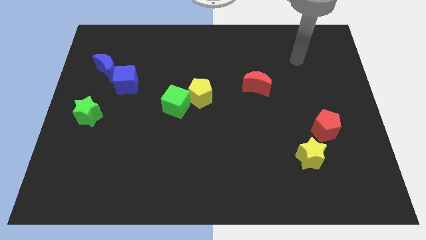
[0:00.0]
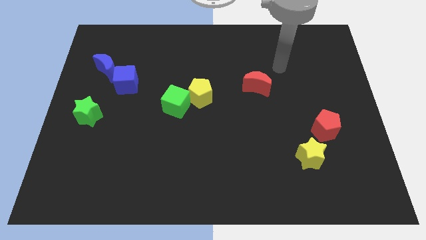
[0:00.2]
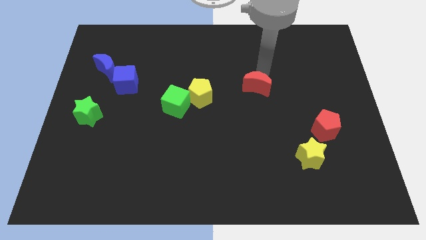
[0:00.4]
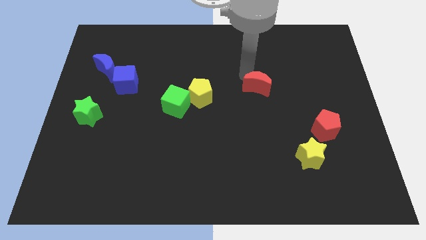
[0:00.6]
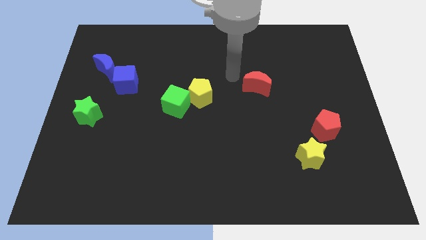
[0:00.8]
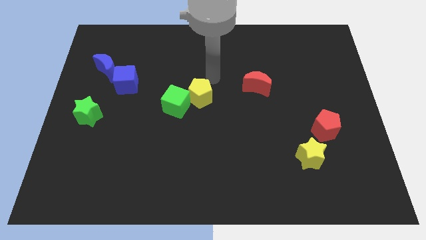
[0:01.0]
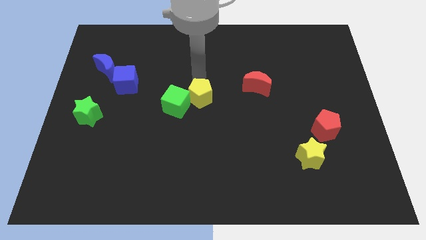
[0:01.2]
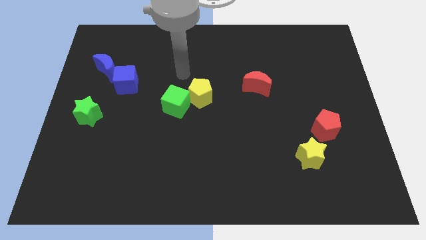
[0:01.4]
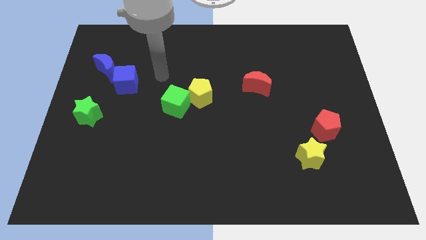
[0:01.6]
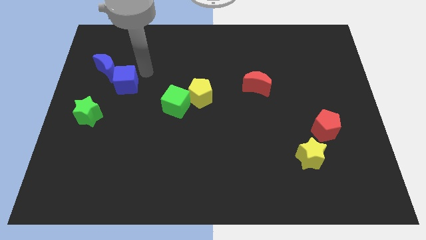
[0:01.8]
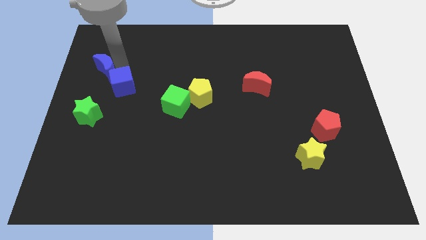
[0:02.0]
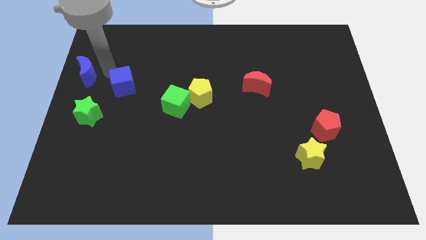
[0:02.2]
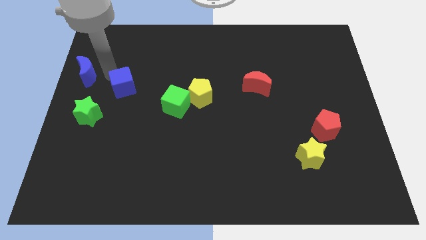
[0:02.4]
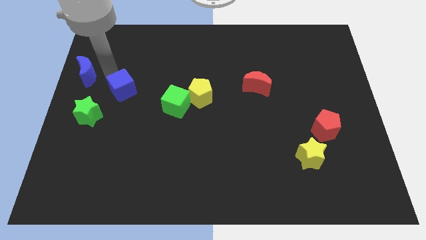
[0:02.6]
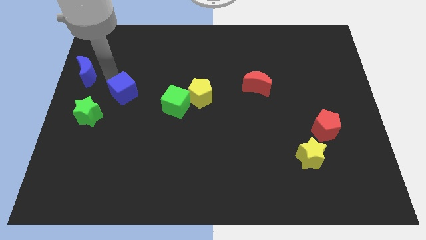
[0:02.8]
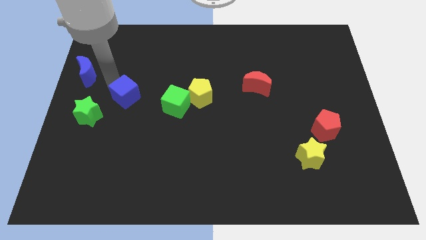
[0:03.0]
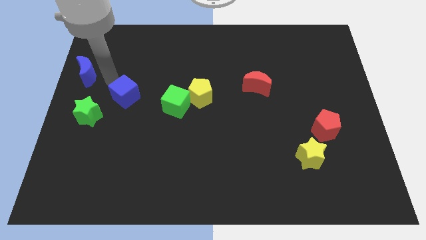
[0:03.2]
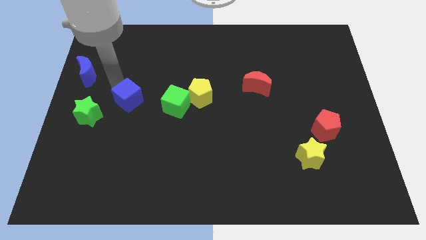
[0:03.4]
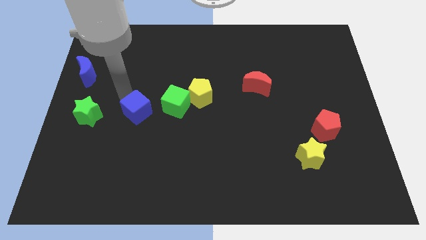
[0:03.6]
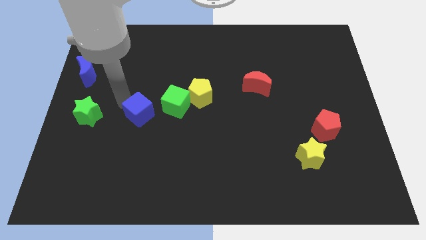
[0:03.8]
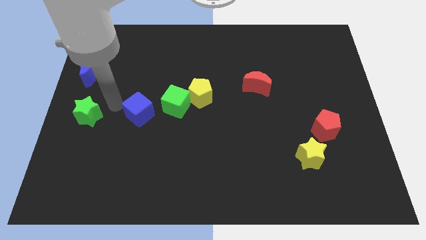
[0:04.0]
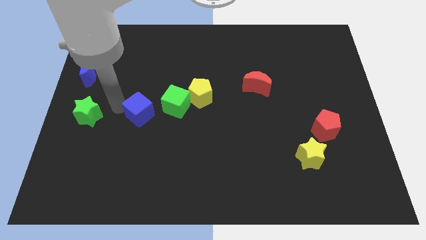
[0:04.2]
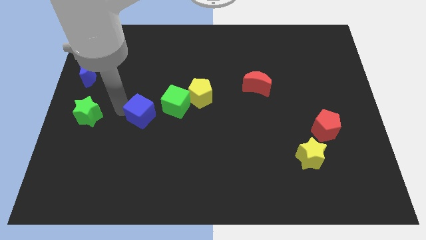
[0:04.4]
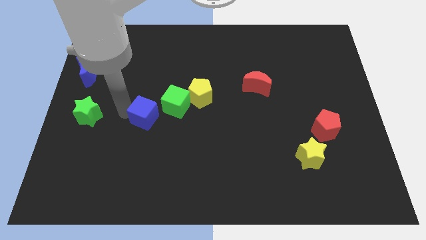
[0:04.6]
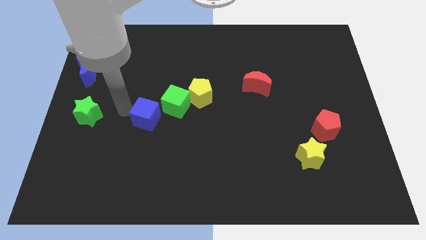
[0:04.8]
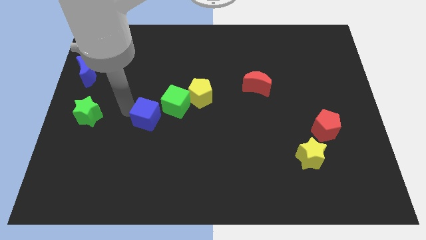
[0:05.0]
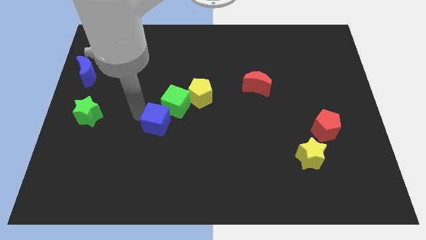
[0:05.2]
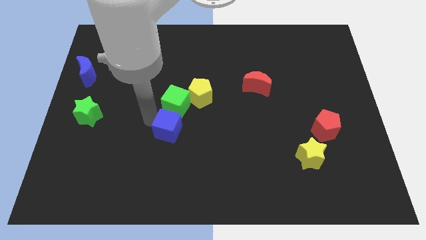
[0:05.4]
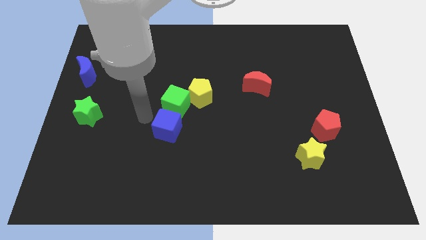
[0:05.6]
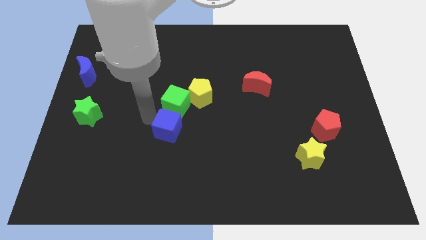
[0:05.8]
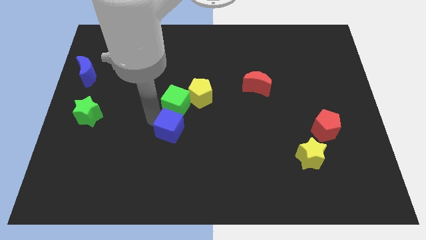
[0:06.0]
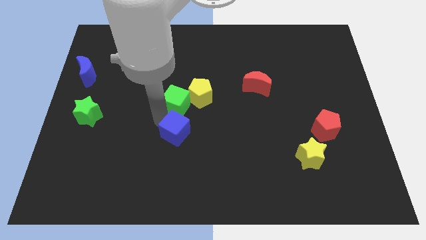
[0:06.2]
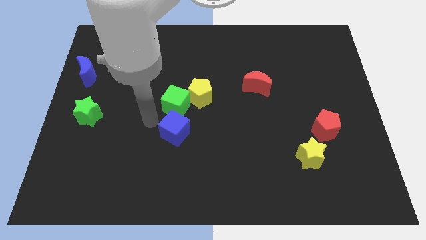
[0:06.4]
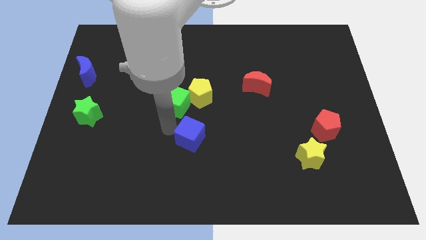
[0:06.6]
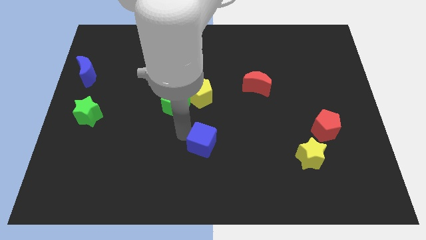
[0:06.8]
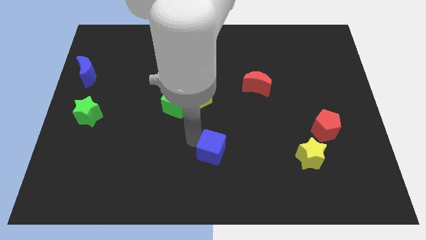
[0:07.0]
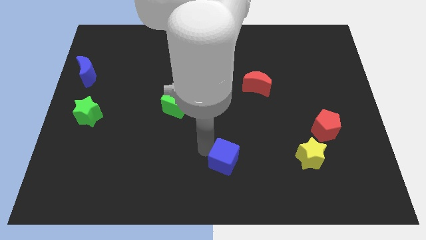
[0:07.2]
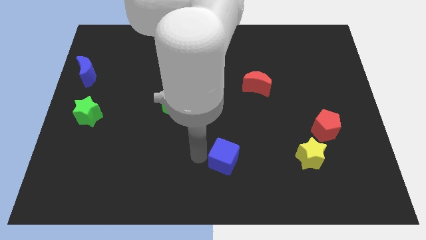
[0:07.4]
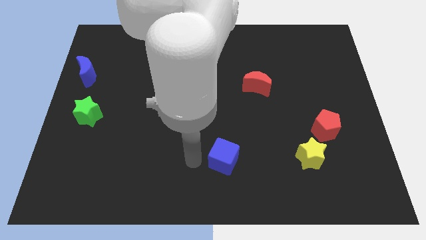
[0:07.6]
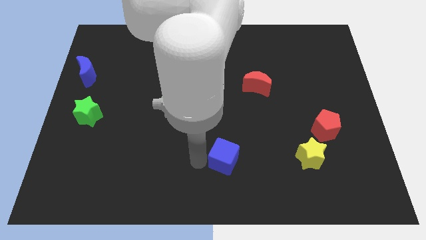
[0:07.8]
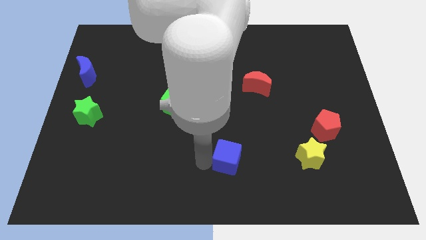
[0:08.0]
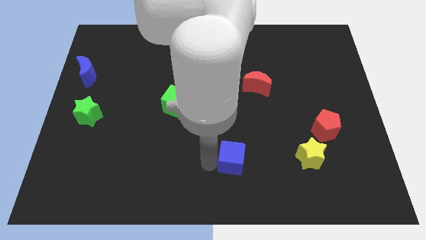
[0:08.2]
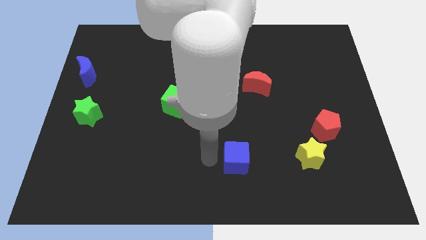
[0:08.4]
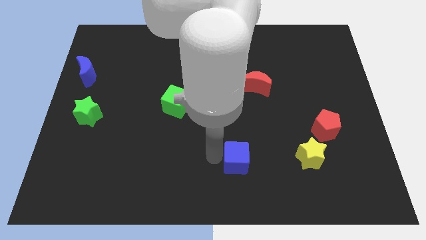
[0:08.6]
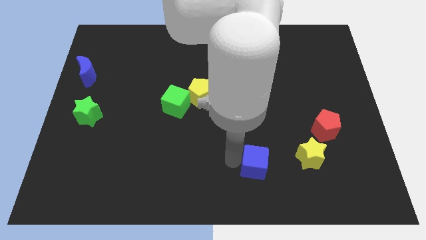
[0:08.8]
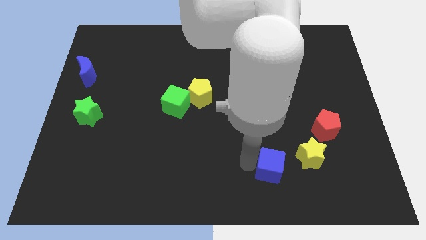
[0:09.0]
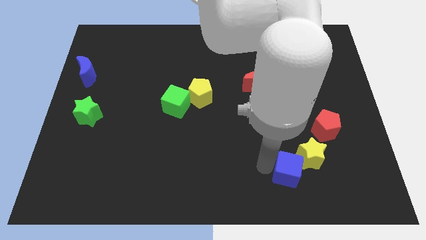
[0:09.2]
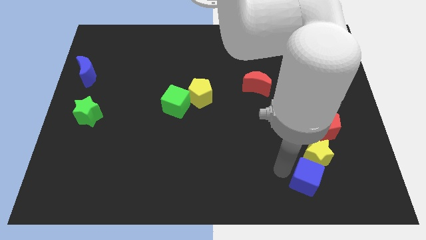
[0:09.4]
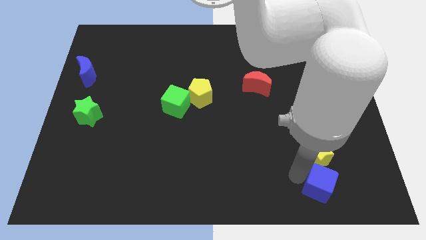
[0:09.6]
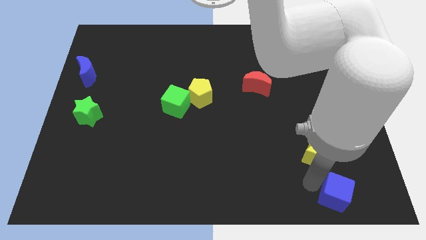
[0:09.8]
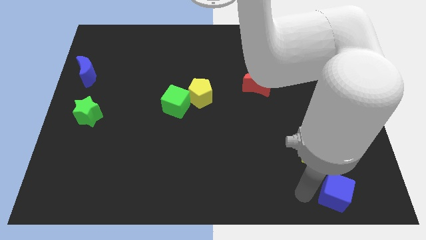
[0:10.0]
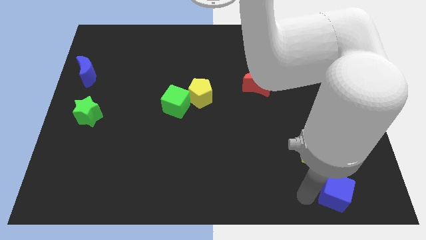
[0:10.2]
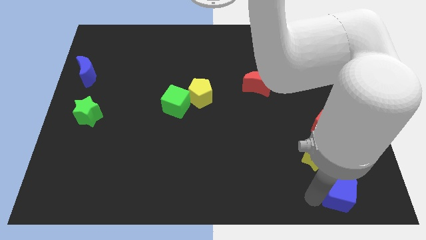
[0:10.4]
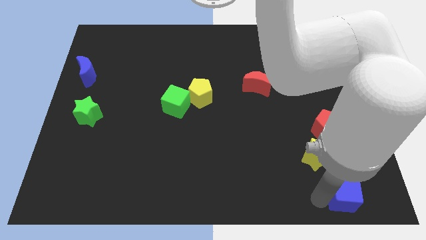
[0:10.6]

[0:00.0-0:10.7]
slide the blue cube to the bottom right of the board

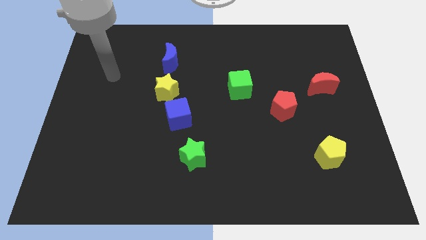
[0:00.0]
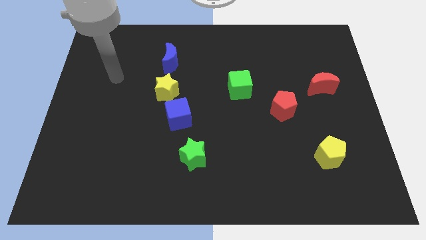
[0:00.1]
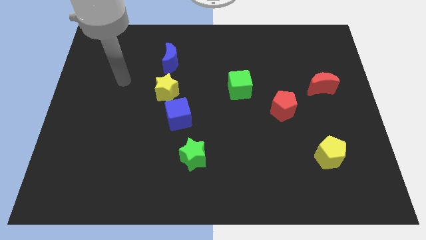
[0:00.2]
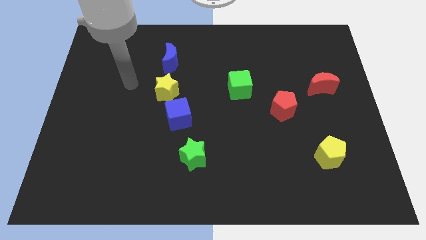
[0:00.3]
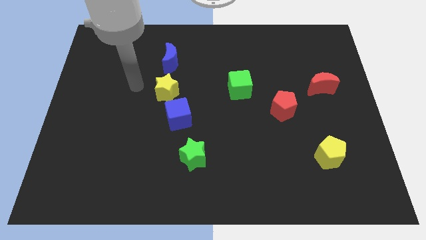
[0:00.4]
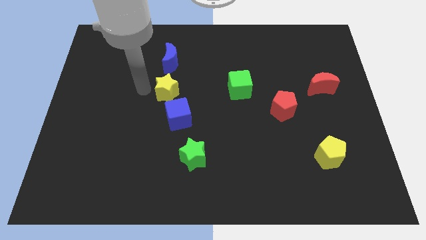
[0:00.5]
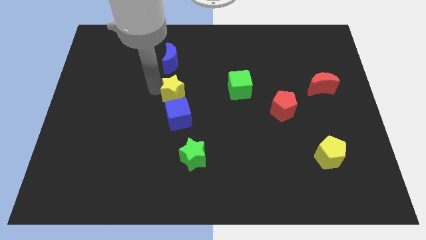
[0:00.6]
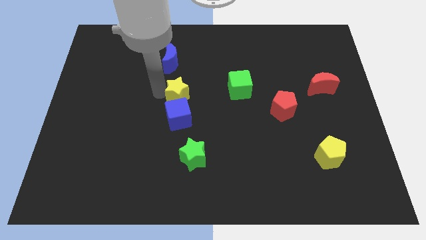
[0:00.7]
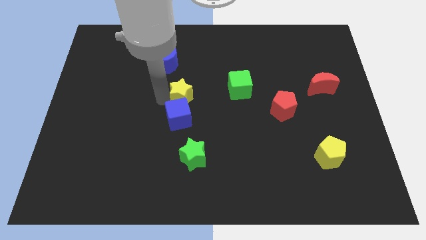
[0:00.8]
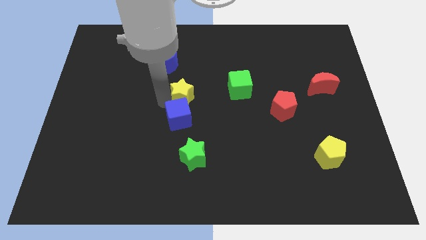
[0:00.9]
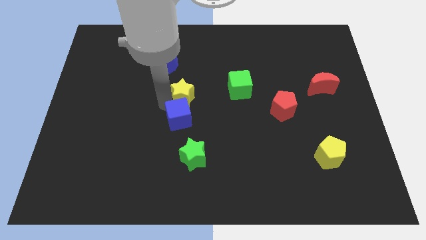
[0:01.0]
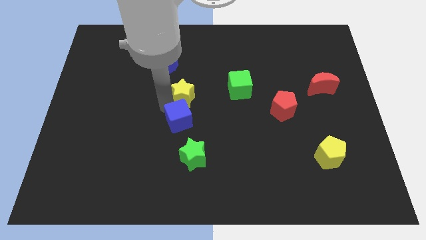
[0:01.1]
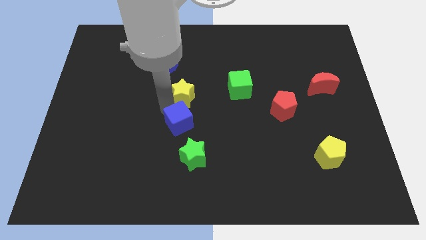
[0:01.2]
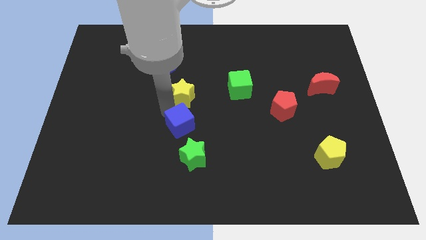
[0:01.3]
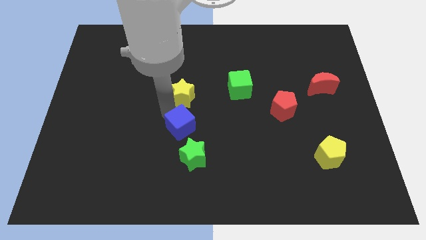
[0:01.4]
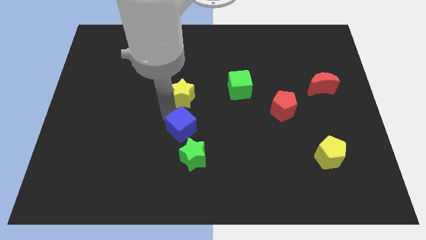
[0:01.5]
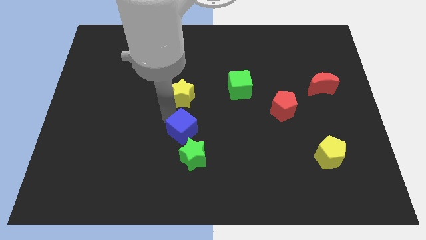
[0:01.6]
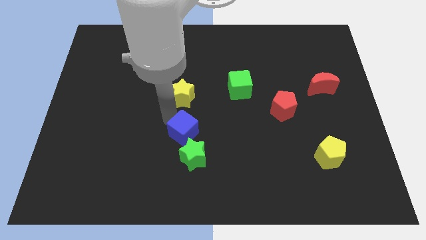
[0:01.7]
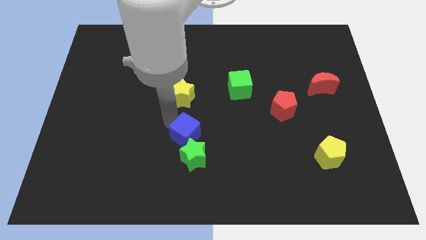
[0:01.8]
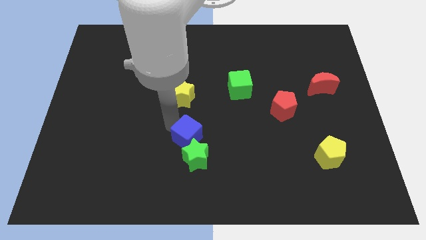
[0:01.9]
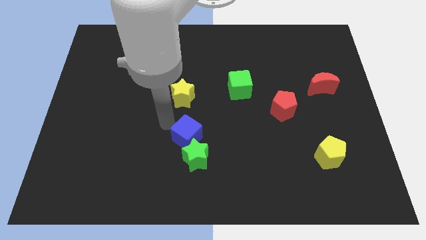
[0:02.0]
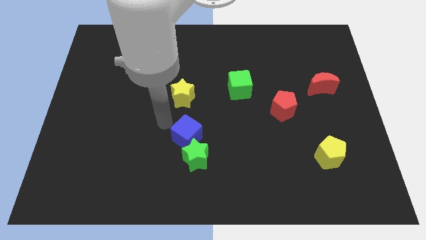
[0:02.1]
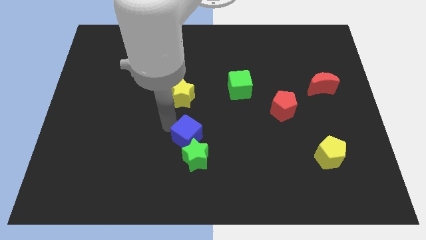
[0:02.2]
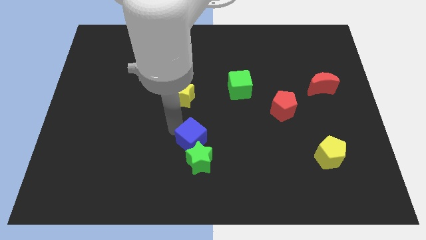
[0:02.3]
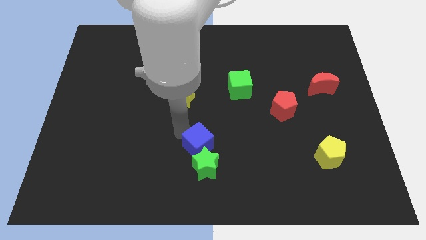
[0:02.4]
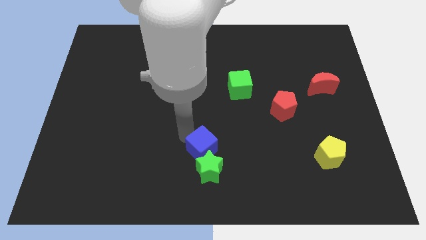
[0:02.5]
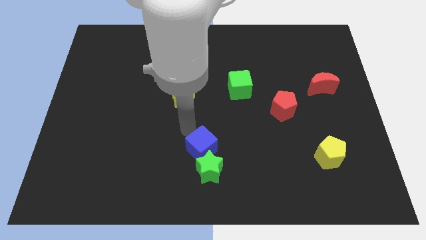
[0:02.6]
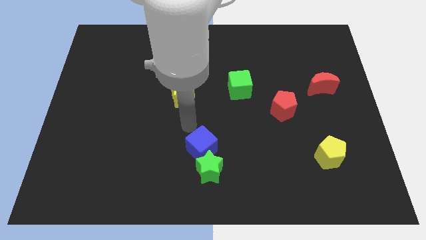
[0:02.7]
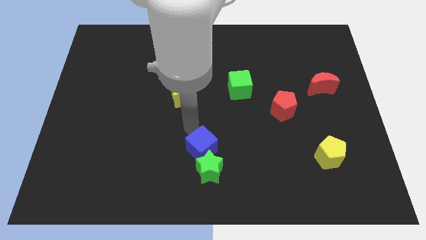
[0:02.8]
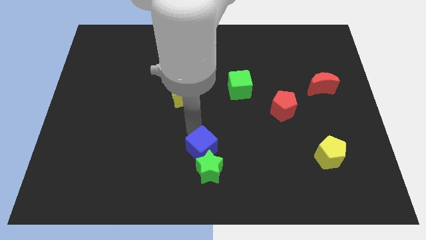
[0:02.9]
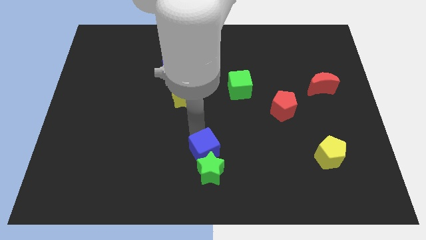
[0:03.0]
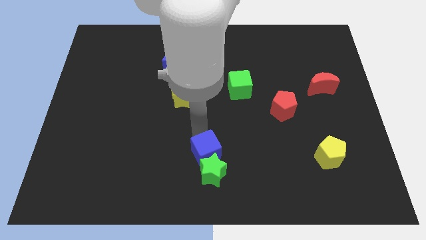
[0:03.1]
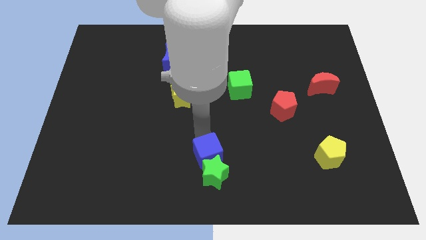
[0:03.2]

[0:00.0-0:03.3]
put the blue cube to the bottom
